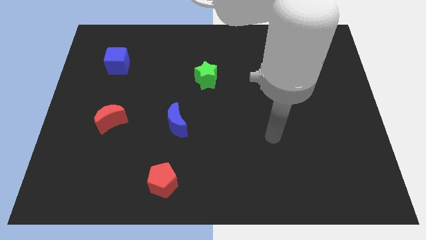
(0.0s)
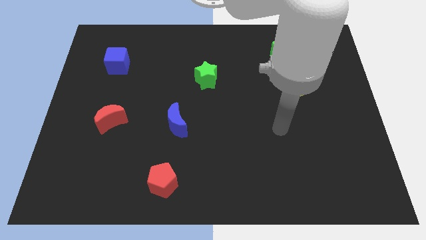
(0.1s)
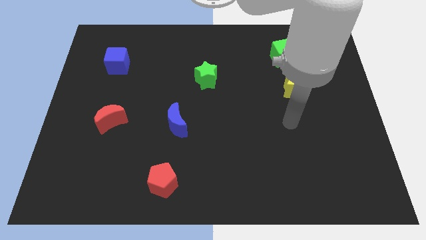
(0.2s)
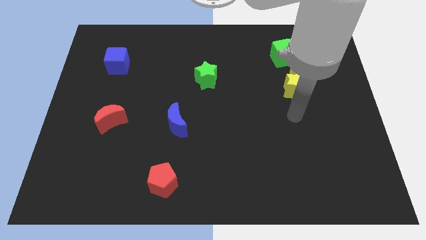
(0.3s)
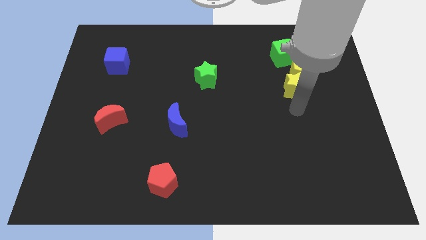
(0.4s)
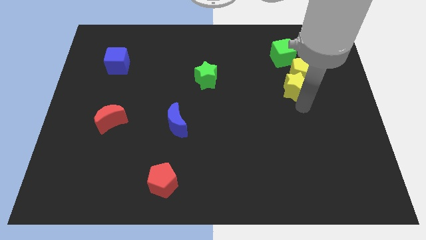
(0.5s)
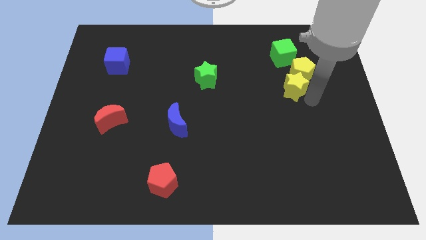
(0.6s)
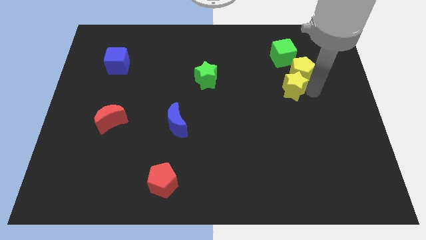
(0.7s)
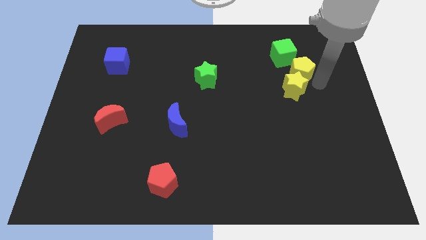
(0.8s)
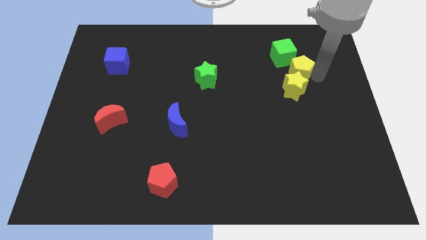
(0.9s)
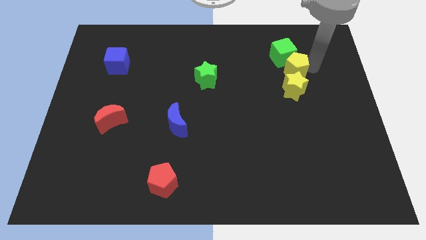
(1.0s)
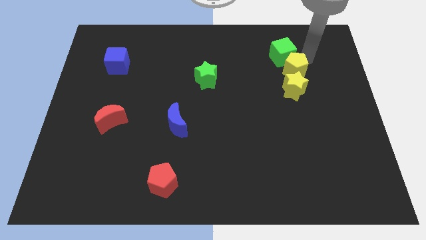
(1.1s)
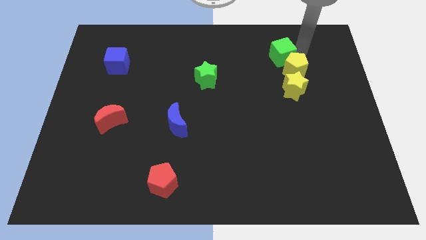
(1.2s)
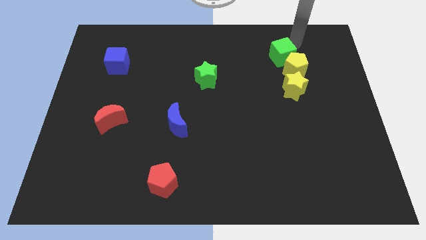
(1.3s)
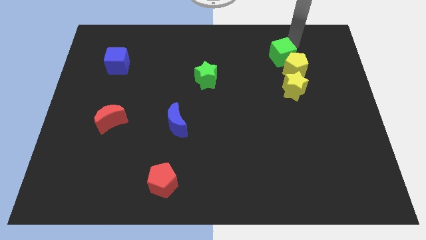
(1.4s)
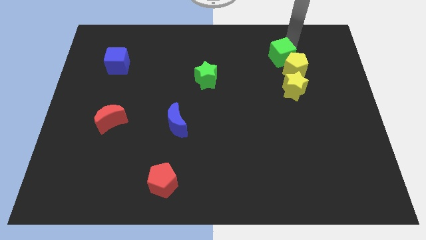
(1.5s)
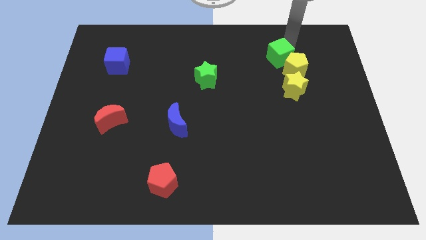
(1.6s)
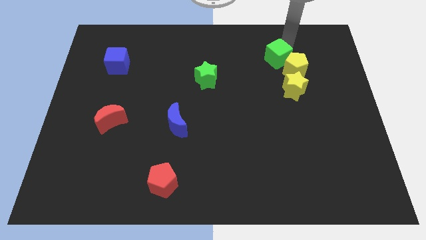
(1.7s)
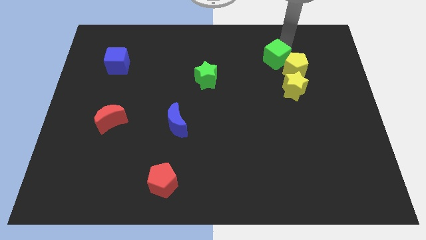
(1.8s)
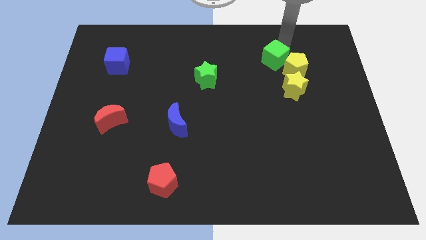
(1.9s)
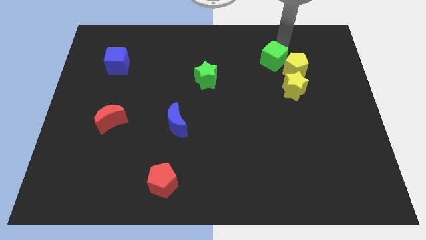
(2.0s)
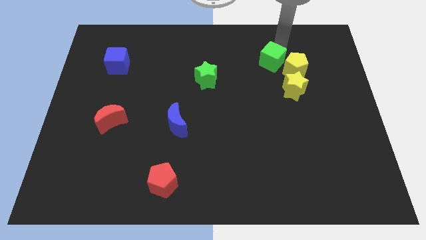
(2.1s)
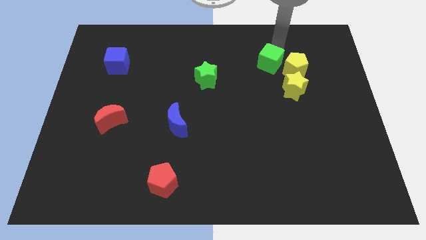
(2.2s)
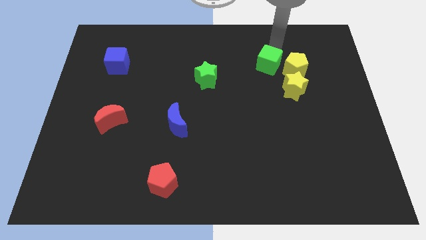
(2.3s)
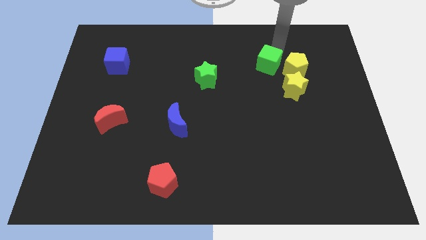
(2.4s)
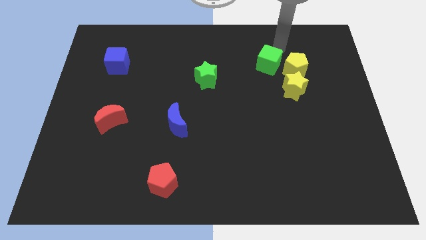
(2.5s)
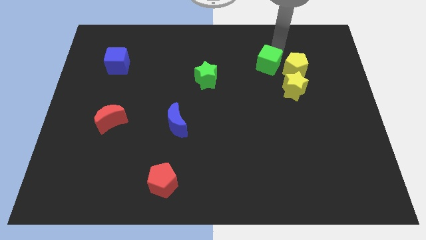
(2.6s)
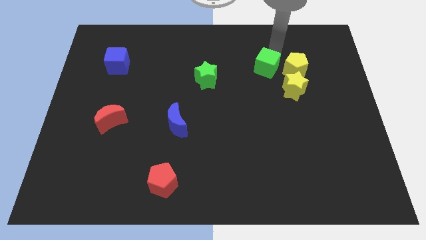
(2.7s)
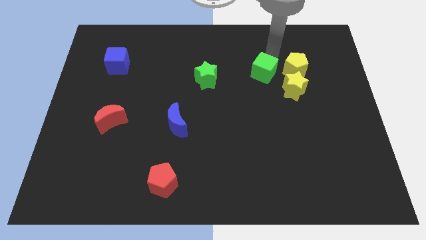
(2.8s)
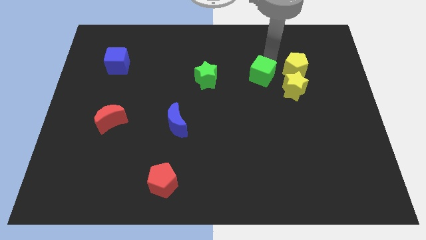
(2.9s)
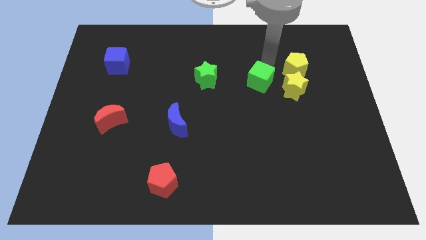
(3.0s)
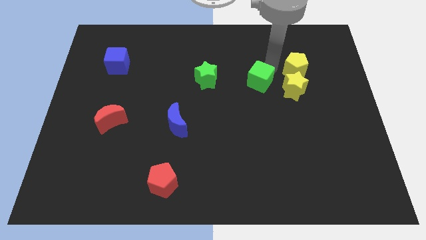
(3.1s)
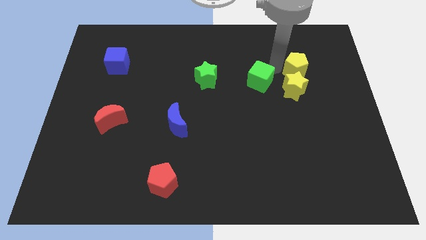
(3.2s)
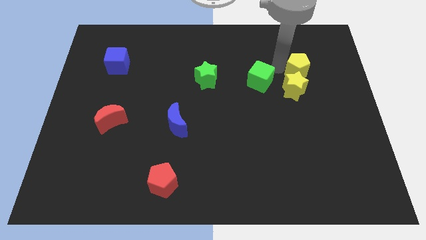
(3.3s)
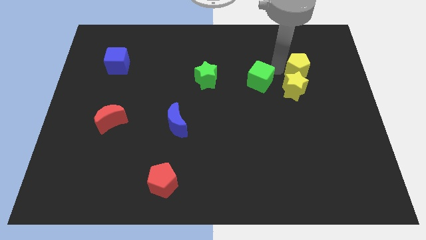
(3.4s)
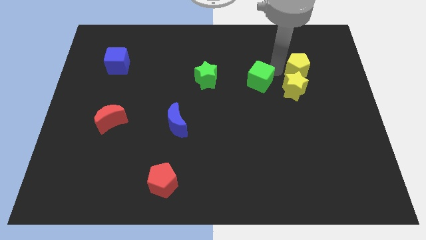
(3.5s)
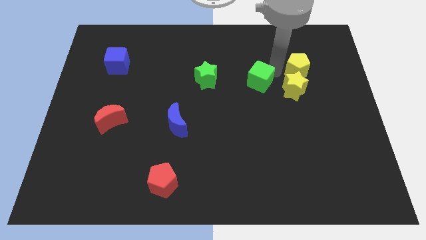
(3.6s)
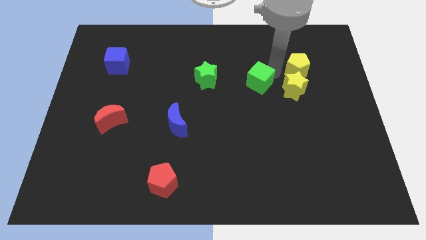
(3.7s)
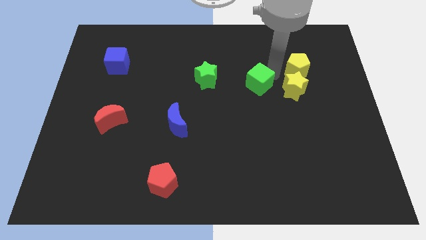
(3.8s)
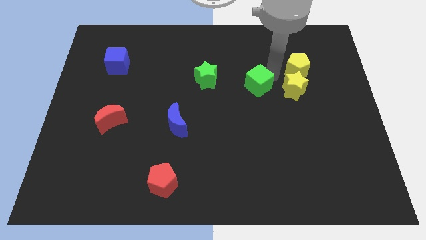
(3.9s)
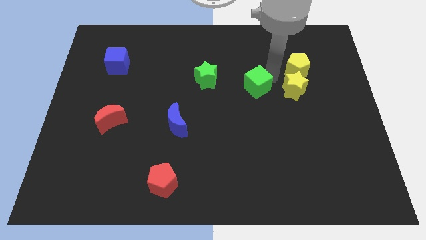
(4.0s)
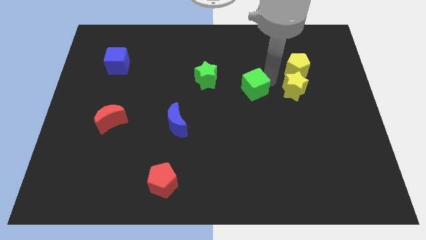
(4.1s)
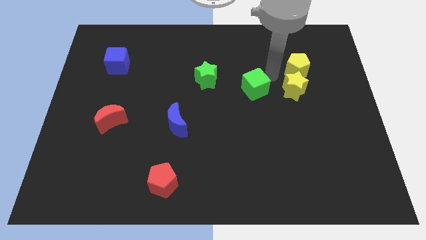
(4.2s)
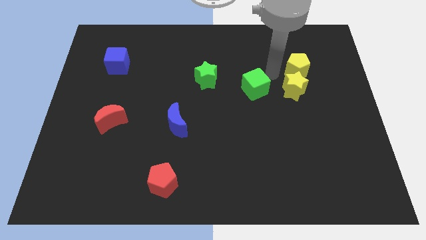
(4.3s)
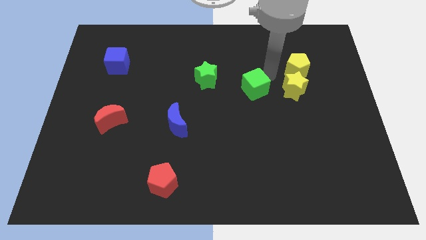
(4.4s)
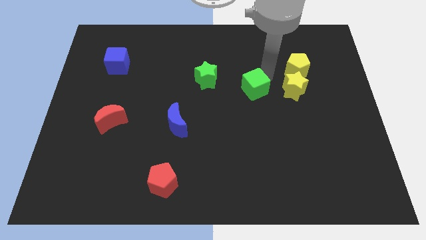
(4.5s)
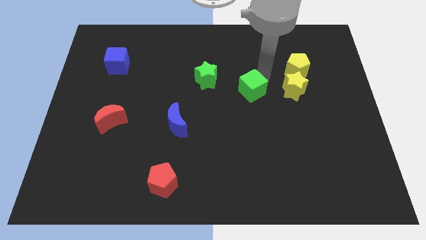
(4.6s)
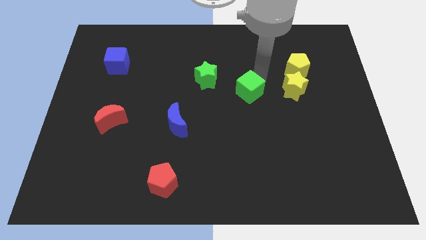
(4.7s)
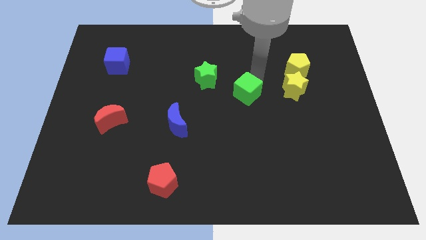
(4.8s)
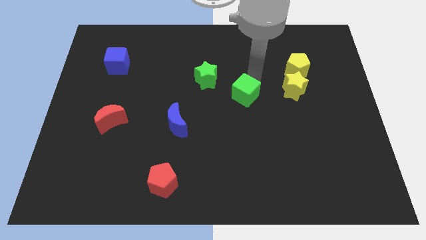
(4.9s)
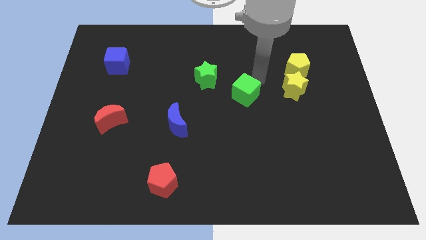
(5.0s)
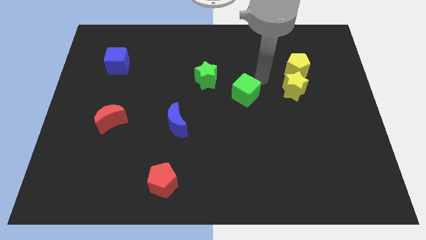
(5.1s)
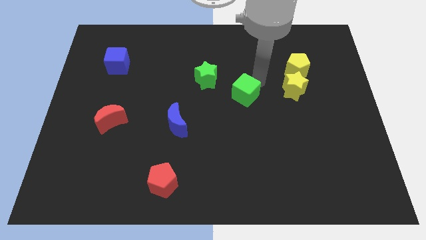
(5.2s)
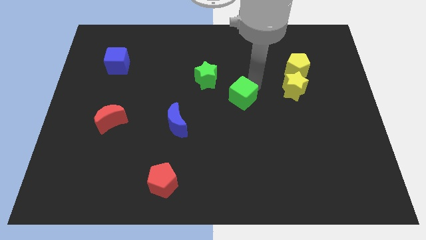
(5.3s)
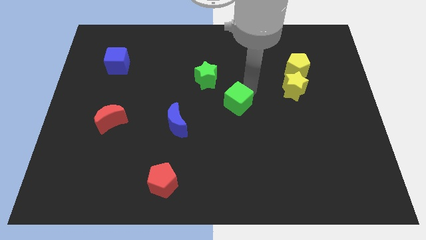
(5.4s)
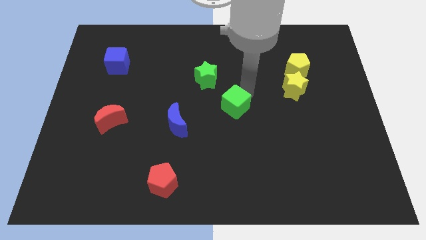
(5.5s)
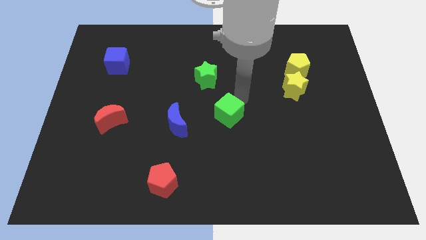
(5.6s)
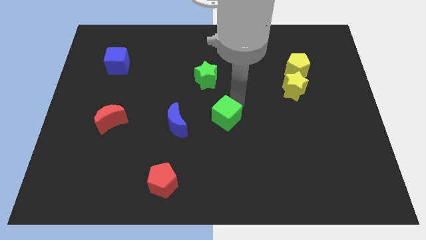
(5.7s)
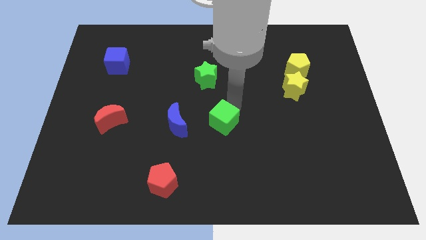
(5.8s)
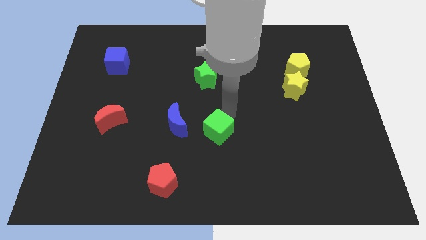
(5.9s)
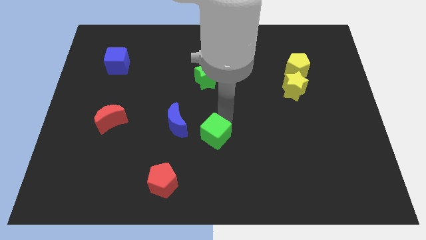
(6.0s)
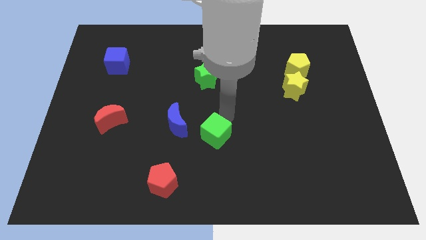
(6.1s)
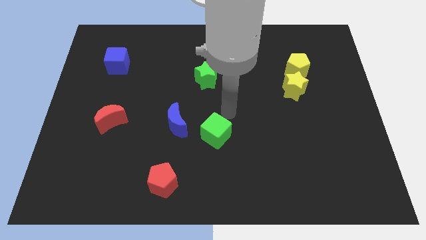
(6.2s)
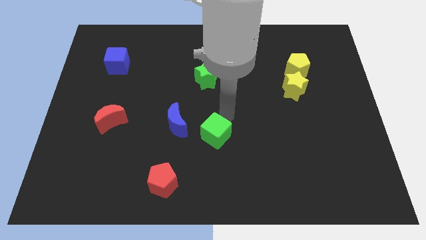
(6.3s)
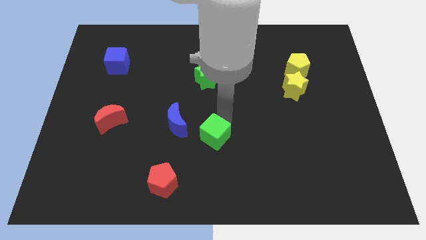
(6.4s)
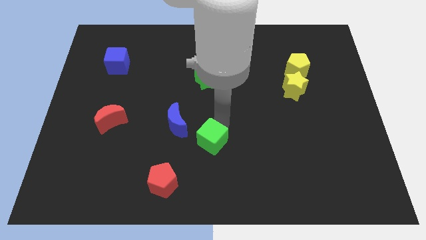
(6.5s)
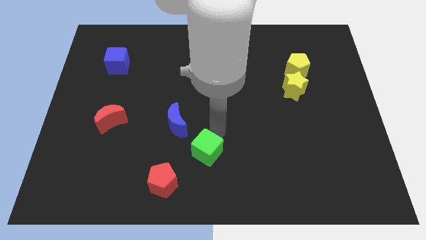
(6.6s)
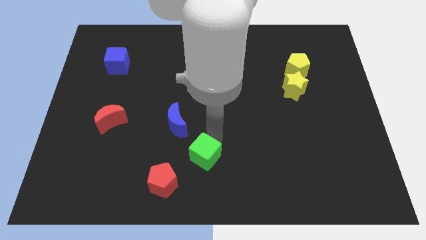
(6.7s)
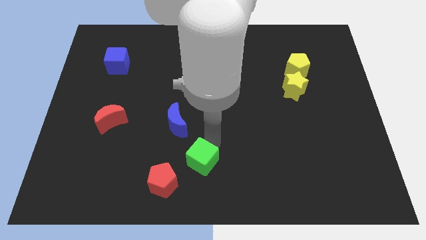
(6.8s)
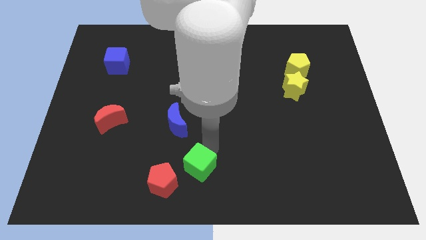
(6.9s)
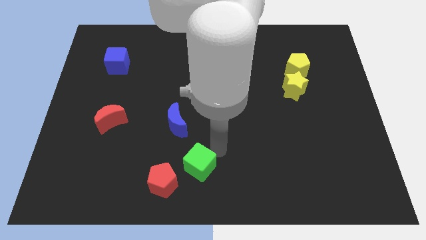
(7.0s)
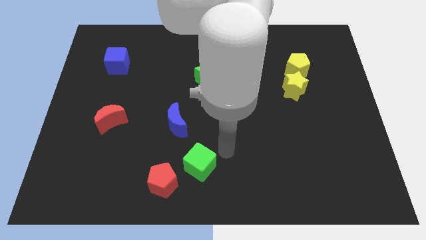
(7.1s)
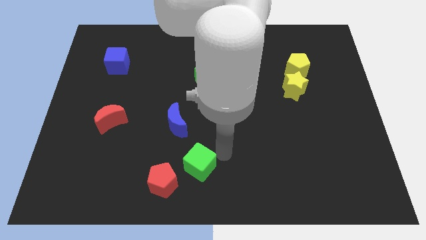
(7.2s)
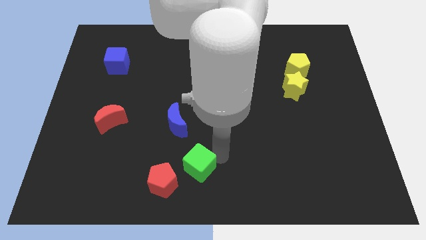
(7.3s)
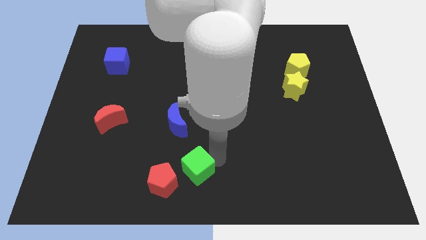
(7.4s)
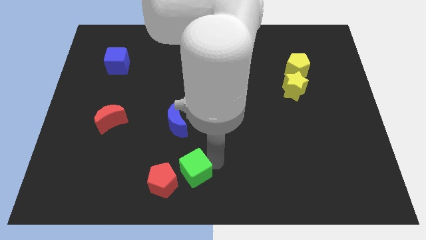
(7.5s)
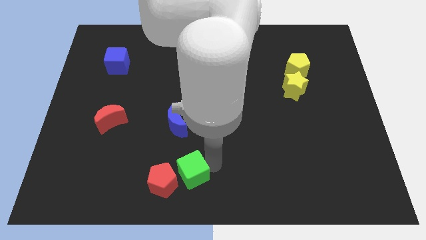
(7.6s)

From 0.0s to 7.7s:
move the green cube towards the red pentagon
